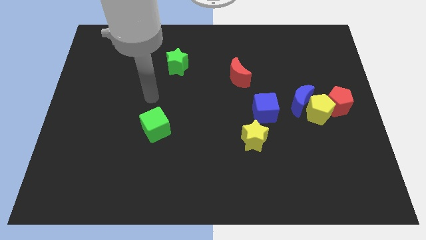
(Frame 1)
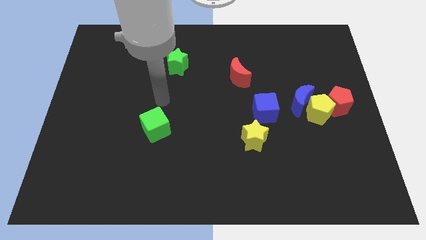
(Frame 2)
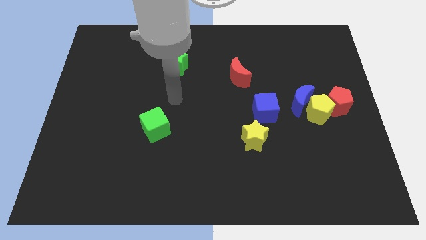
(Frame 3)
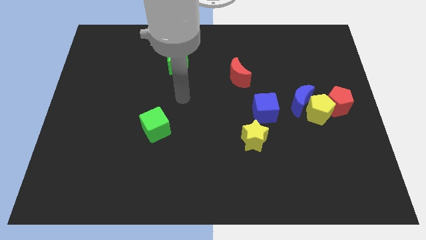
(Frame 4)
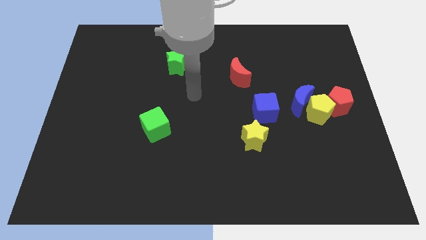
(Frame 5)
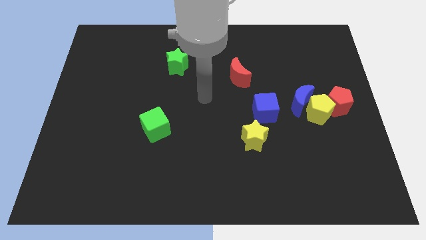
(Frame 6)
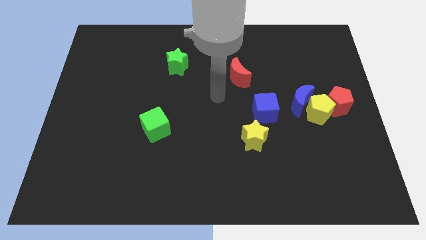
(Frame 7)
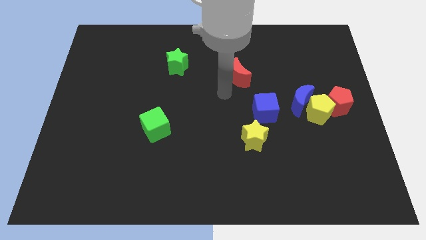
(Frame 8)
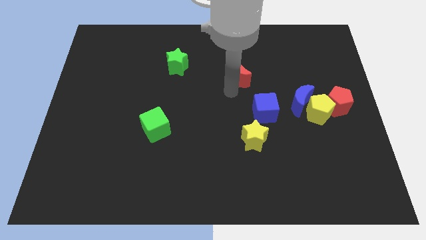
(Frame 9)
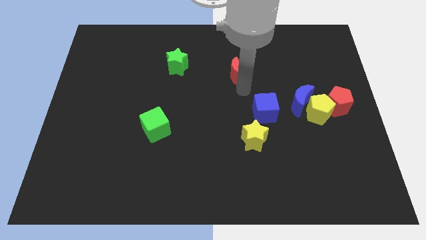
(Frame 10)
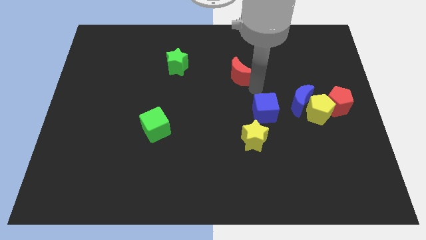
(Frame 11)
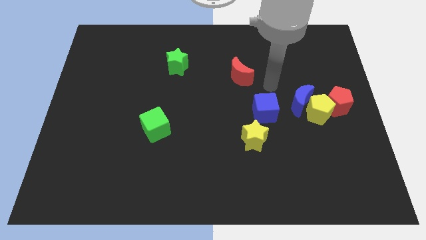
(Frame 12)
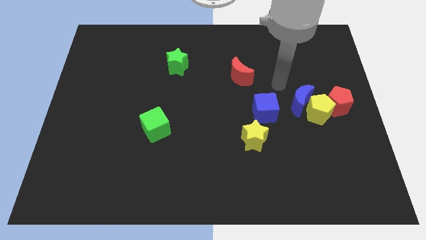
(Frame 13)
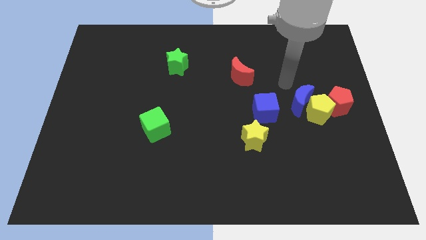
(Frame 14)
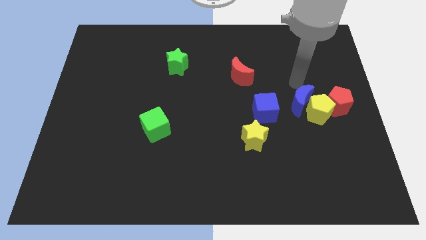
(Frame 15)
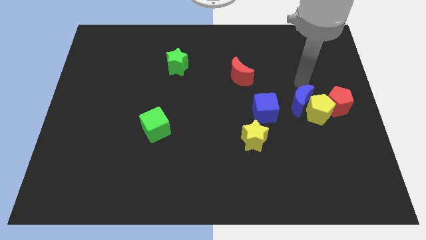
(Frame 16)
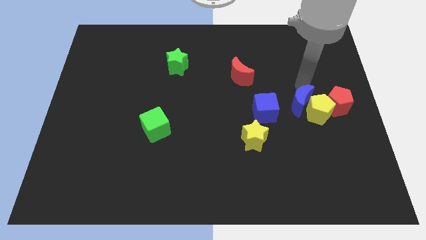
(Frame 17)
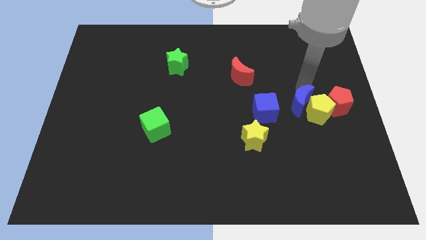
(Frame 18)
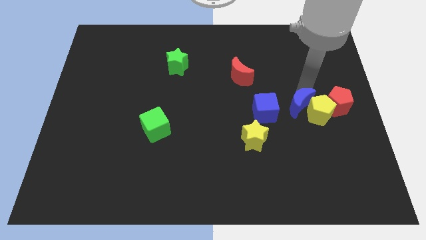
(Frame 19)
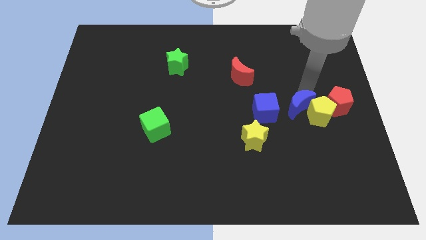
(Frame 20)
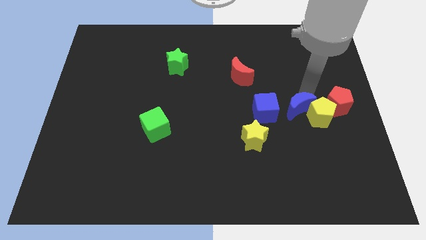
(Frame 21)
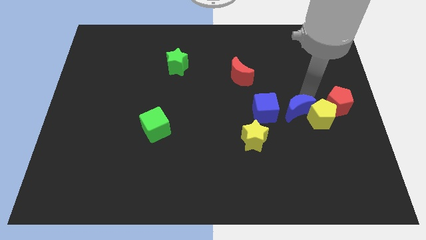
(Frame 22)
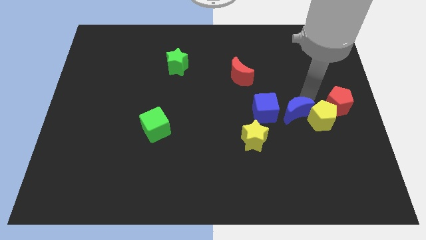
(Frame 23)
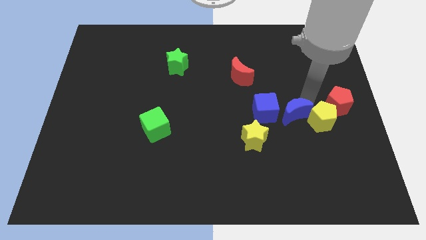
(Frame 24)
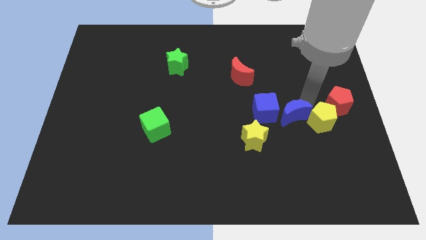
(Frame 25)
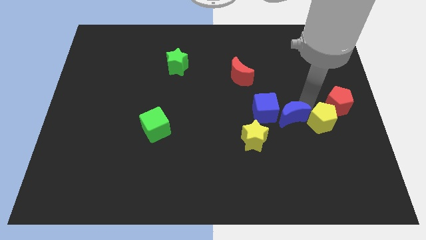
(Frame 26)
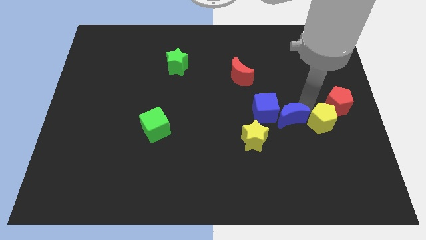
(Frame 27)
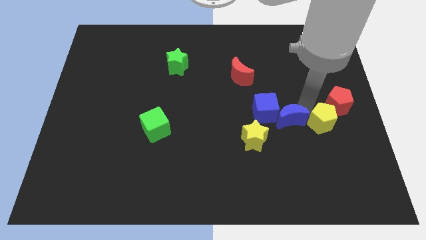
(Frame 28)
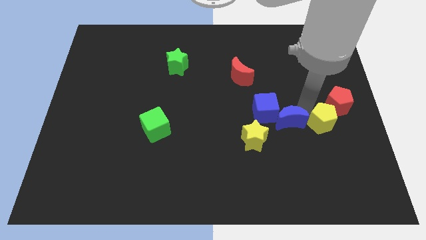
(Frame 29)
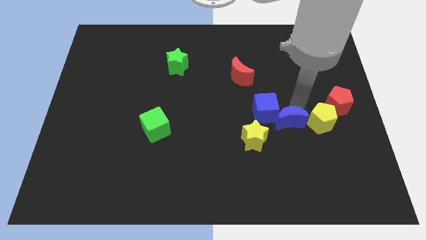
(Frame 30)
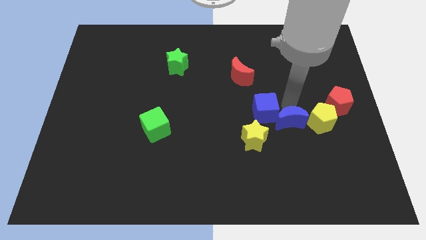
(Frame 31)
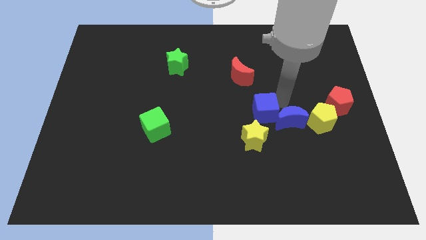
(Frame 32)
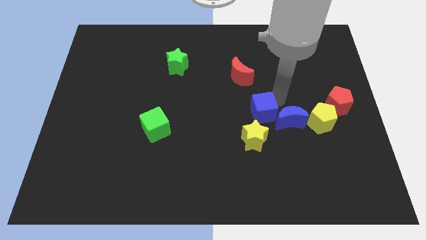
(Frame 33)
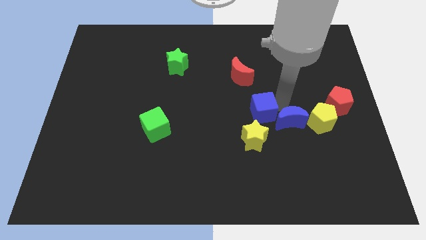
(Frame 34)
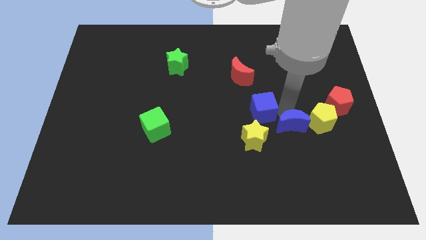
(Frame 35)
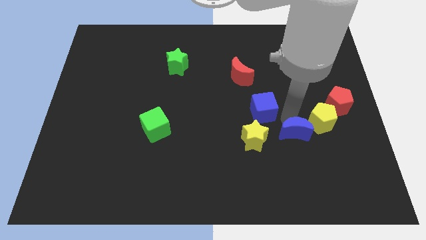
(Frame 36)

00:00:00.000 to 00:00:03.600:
move the blue moon downwards somewhat

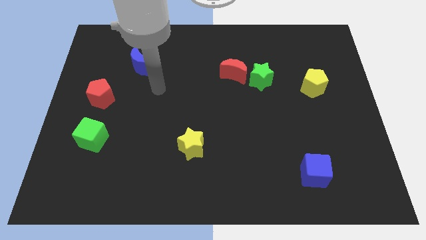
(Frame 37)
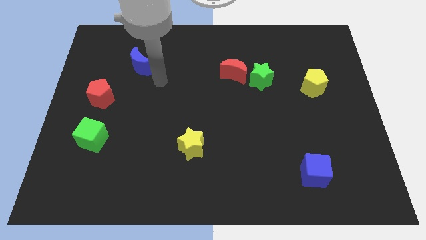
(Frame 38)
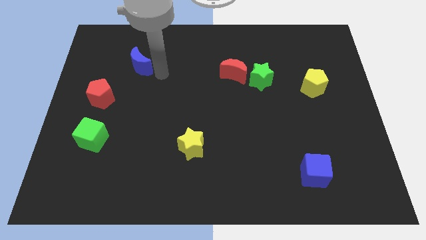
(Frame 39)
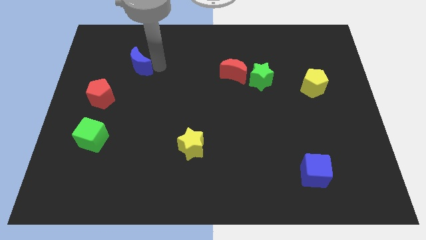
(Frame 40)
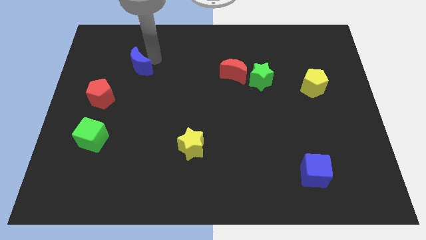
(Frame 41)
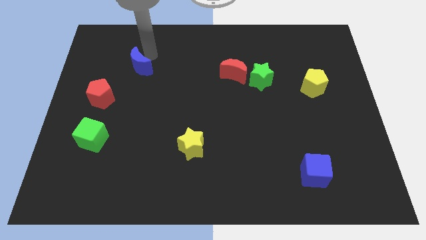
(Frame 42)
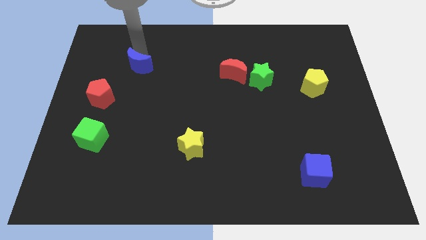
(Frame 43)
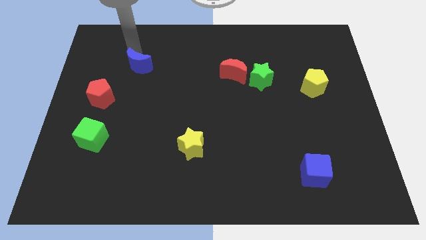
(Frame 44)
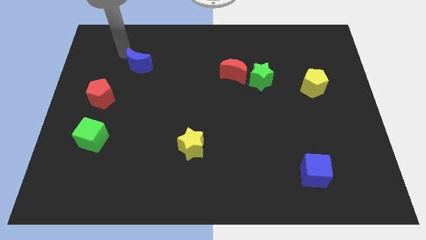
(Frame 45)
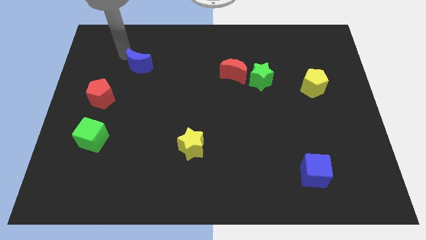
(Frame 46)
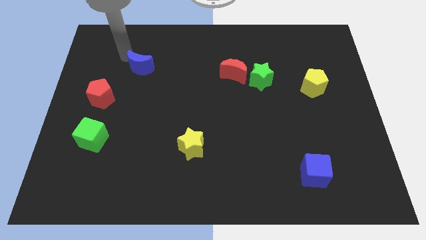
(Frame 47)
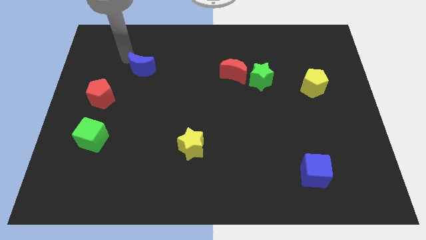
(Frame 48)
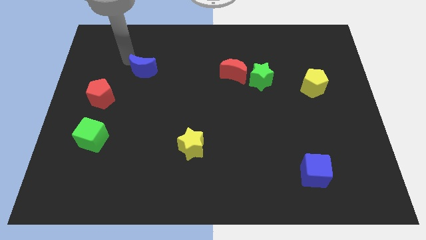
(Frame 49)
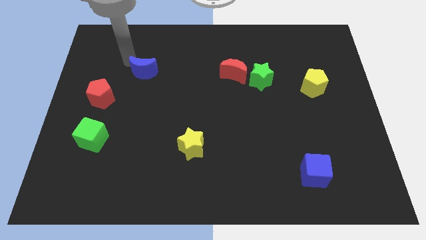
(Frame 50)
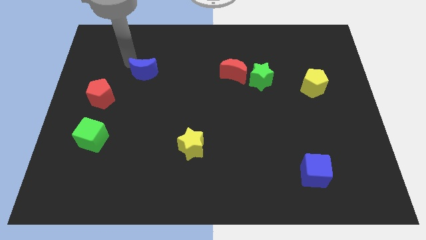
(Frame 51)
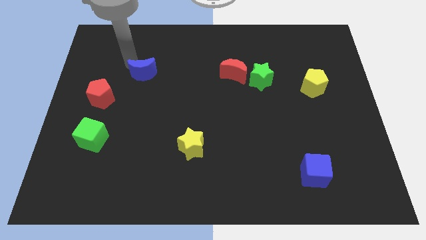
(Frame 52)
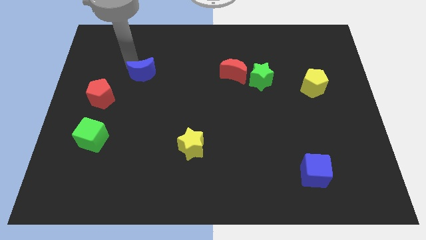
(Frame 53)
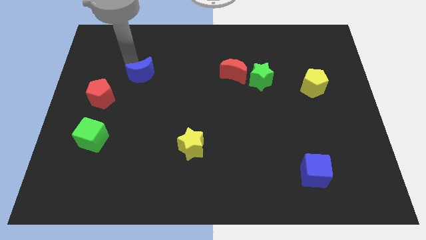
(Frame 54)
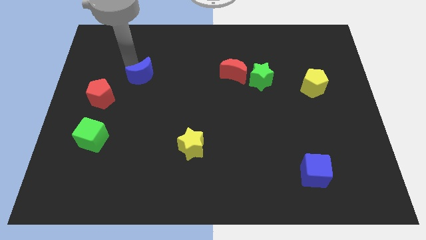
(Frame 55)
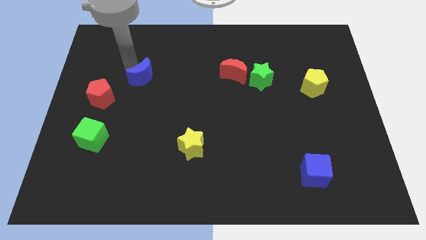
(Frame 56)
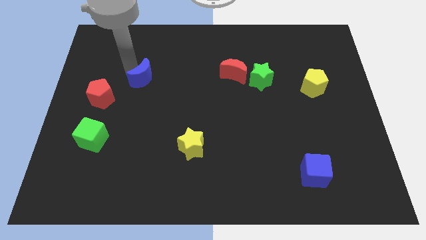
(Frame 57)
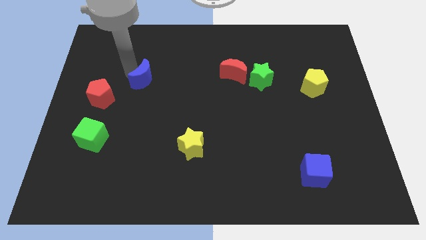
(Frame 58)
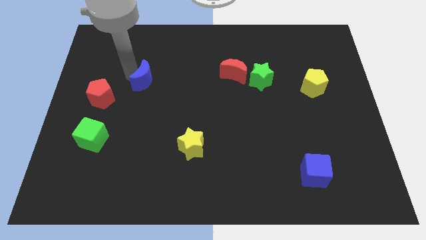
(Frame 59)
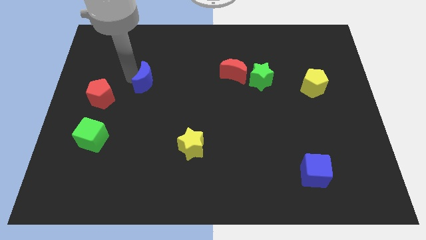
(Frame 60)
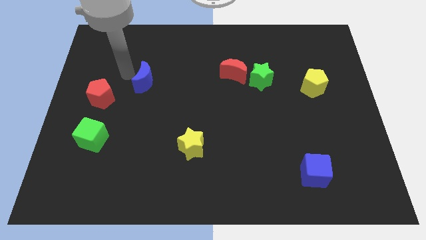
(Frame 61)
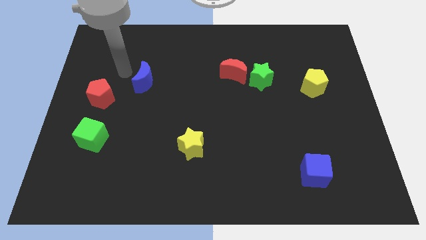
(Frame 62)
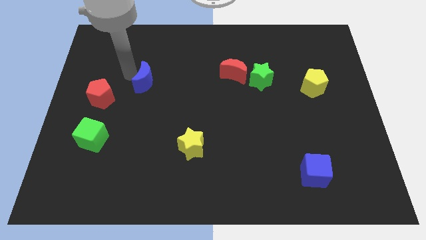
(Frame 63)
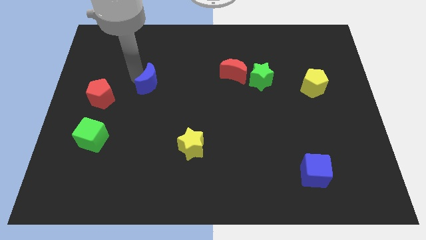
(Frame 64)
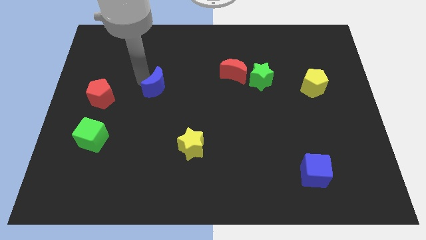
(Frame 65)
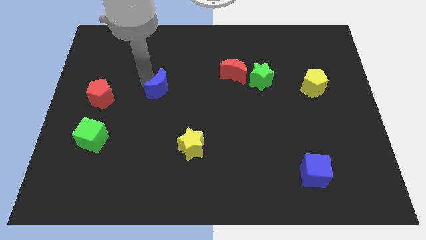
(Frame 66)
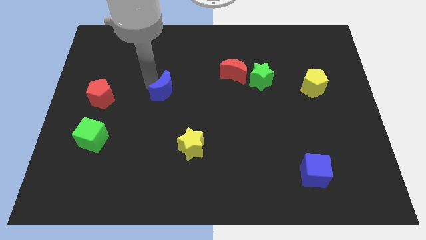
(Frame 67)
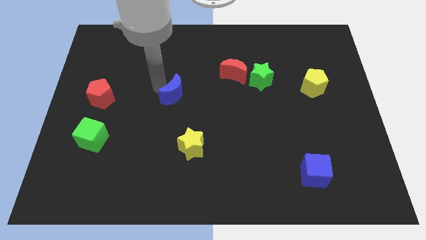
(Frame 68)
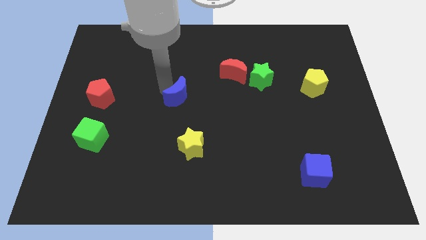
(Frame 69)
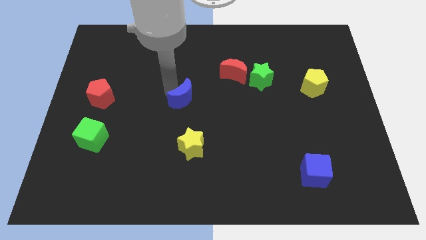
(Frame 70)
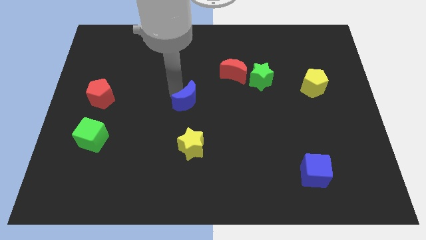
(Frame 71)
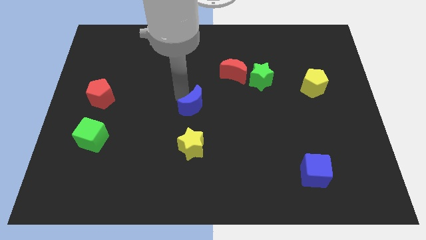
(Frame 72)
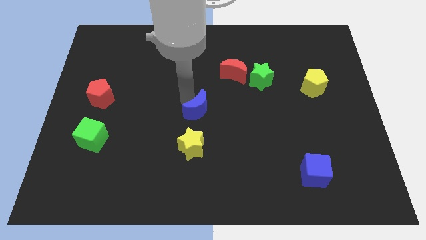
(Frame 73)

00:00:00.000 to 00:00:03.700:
move the blue moon downwards and right diagonally

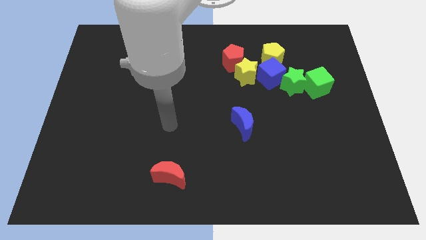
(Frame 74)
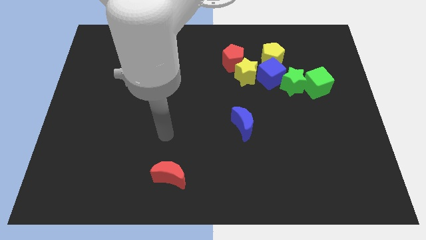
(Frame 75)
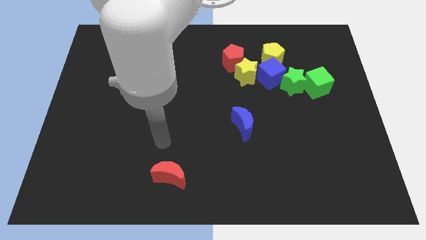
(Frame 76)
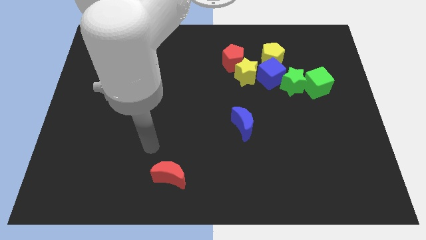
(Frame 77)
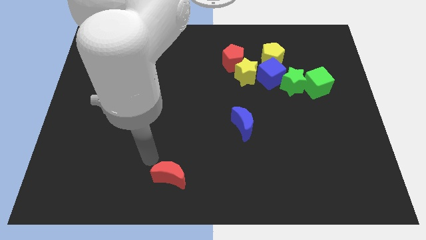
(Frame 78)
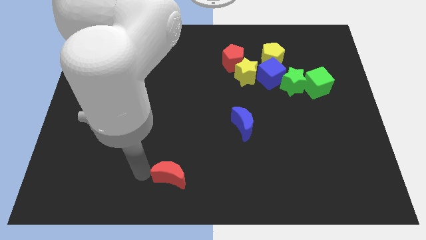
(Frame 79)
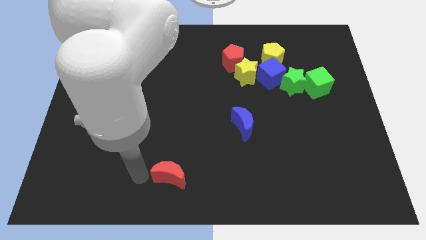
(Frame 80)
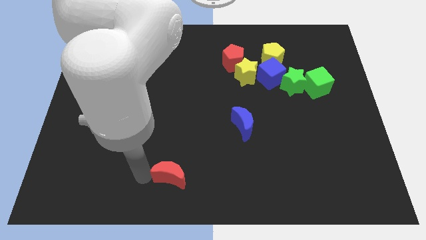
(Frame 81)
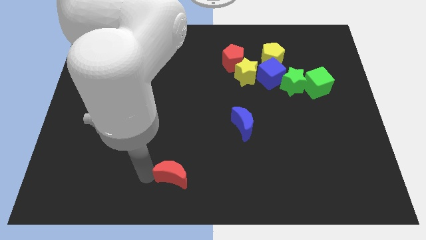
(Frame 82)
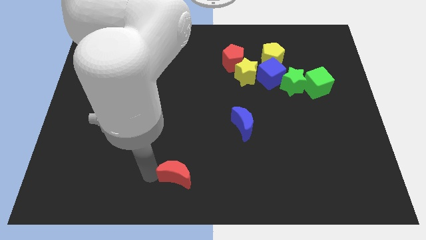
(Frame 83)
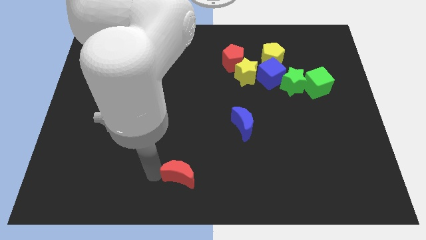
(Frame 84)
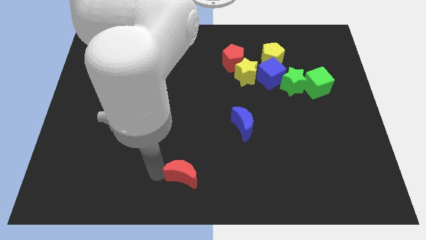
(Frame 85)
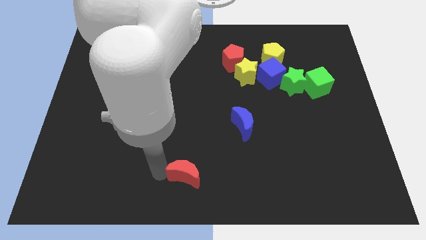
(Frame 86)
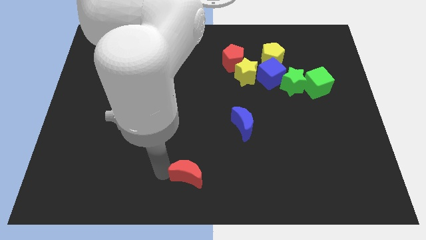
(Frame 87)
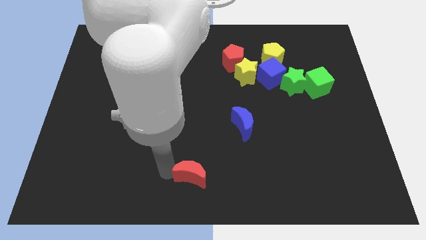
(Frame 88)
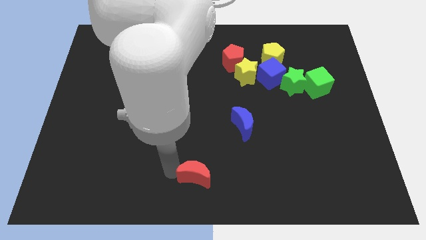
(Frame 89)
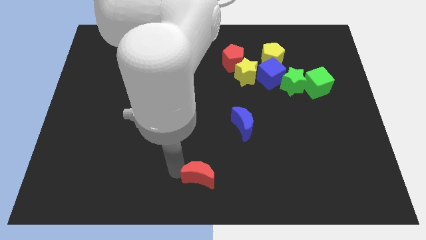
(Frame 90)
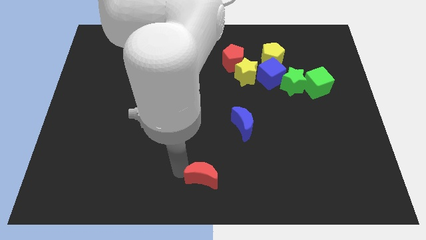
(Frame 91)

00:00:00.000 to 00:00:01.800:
slightly move the red moon right
